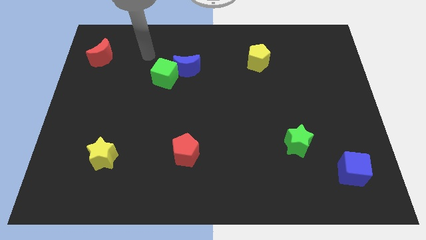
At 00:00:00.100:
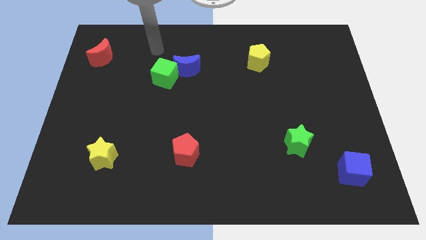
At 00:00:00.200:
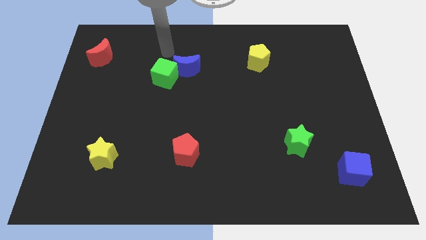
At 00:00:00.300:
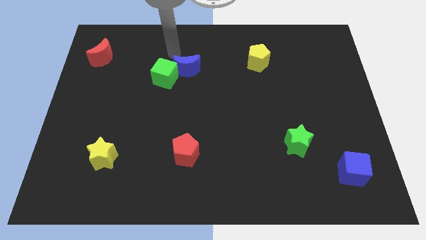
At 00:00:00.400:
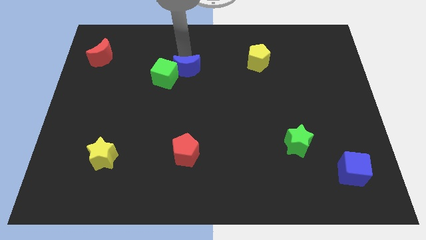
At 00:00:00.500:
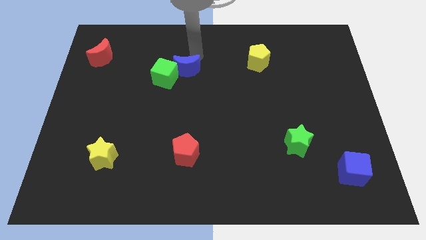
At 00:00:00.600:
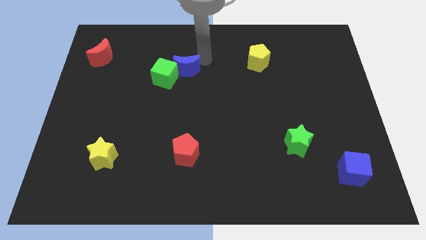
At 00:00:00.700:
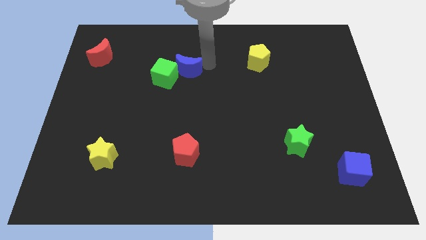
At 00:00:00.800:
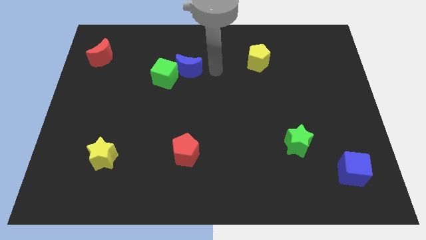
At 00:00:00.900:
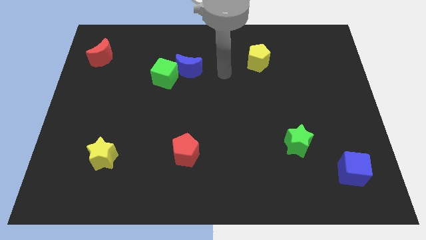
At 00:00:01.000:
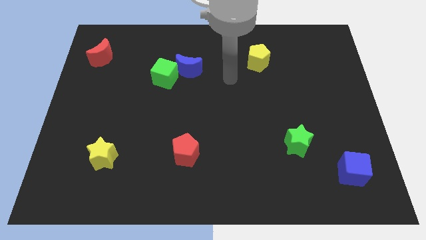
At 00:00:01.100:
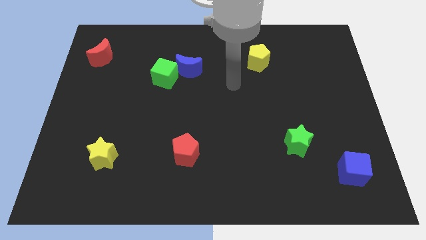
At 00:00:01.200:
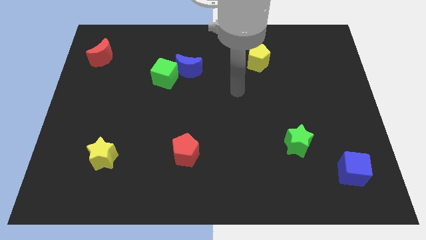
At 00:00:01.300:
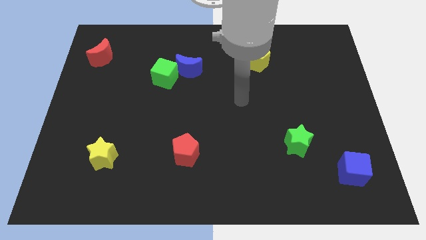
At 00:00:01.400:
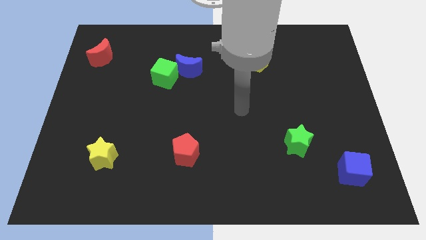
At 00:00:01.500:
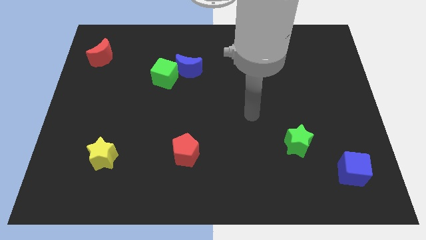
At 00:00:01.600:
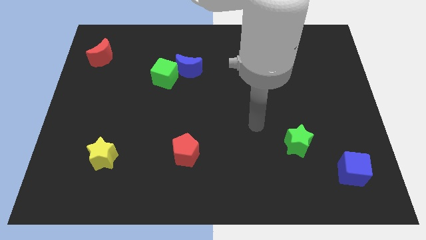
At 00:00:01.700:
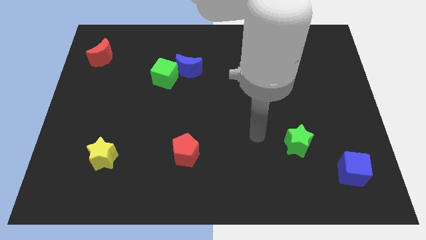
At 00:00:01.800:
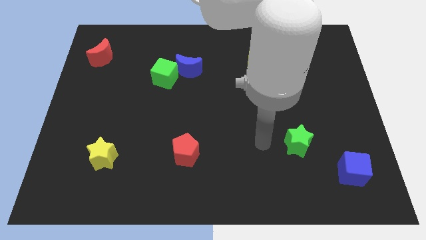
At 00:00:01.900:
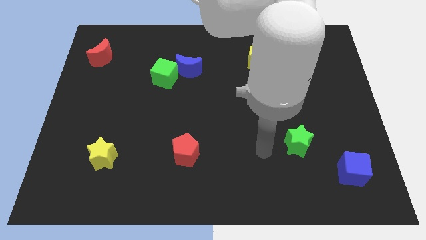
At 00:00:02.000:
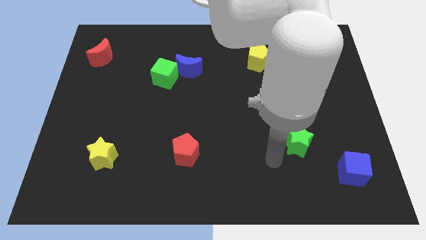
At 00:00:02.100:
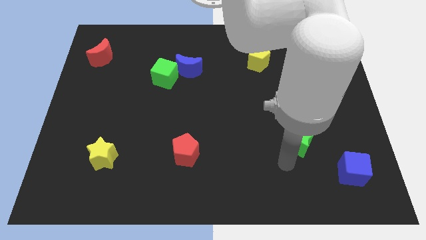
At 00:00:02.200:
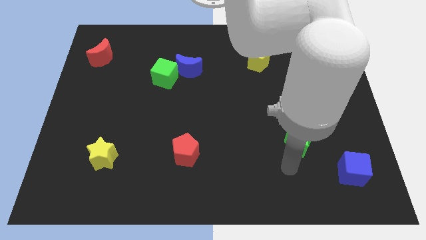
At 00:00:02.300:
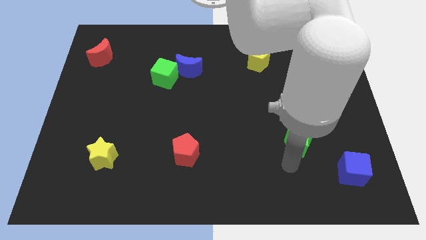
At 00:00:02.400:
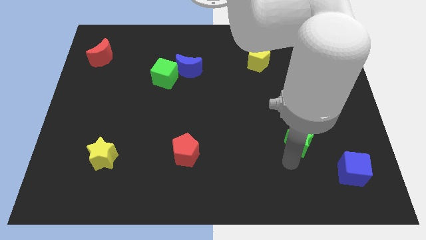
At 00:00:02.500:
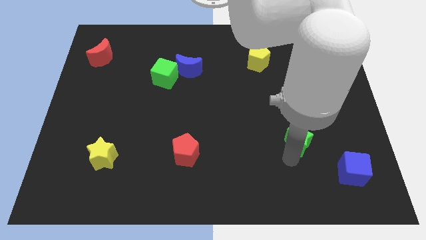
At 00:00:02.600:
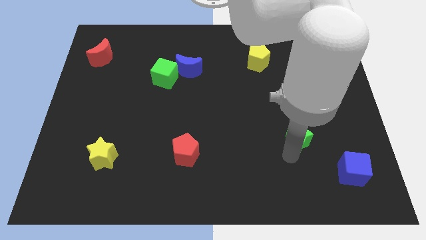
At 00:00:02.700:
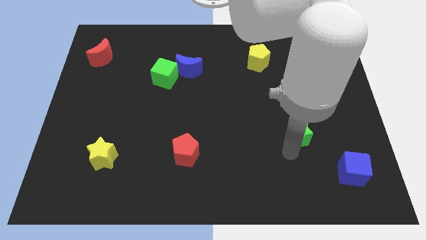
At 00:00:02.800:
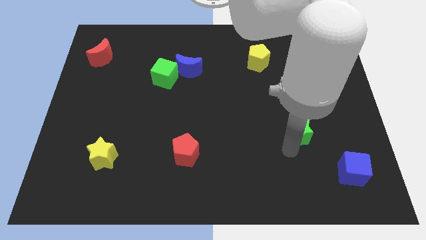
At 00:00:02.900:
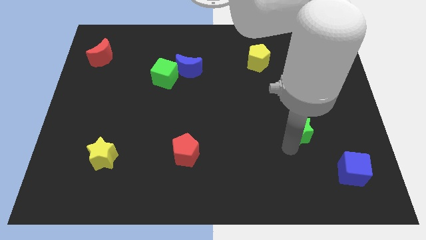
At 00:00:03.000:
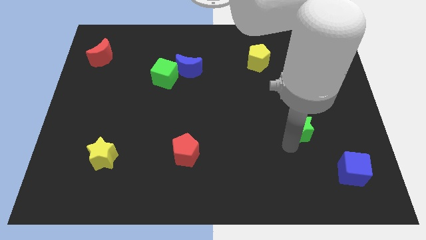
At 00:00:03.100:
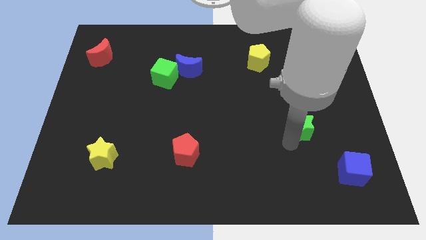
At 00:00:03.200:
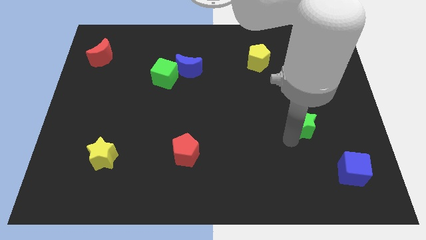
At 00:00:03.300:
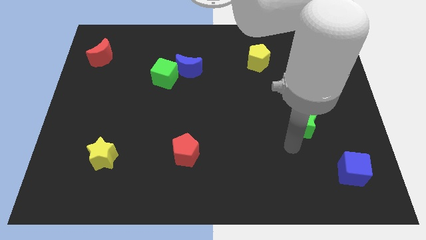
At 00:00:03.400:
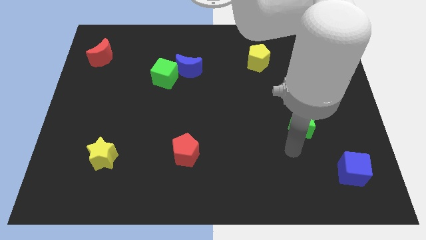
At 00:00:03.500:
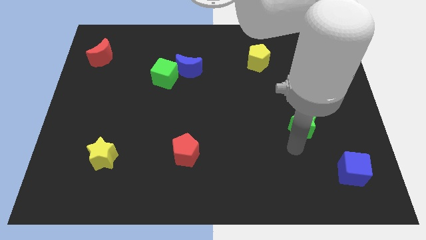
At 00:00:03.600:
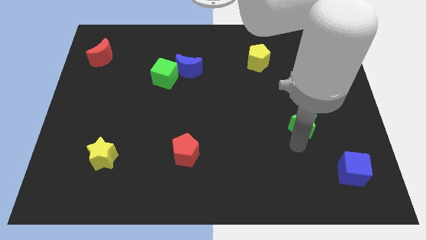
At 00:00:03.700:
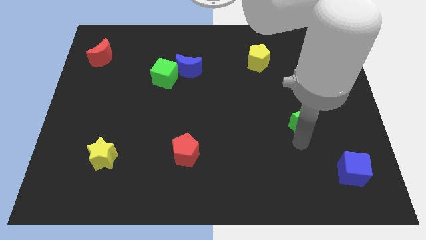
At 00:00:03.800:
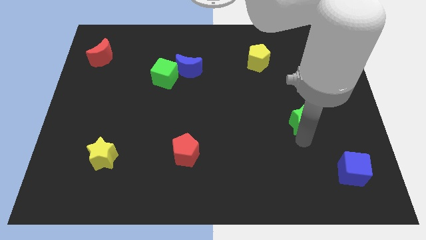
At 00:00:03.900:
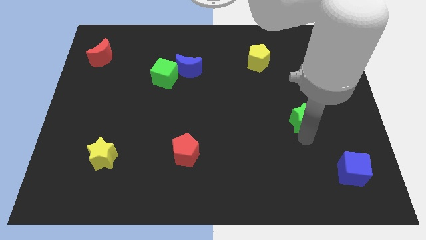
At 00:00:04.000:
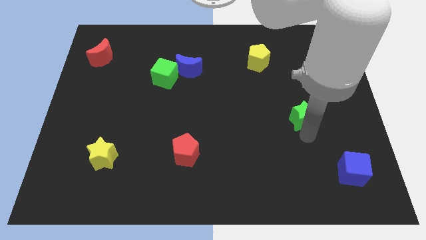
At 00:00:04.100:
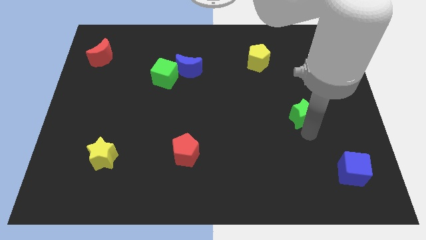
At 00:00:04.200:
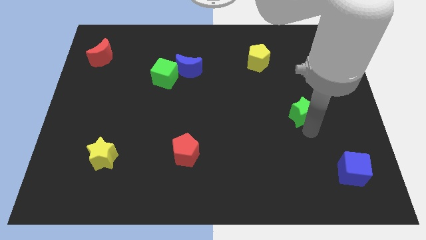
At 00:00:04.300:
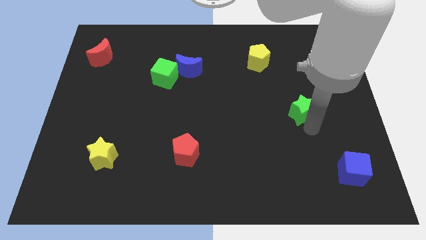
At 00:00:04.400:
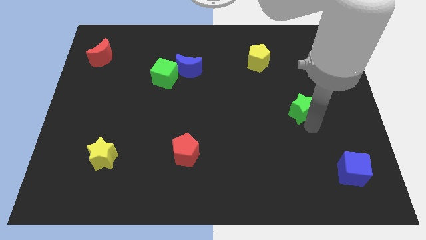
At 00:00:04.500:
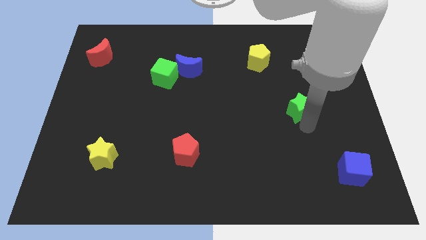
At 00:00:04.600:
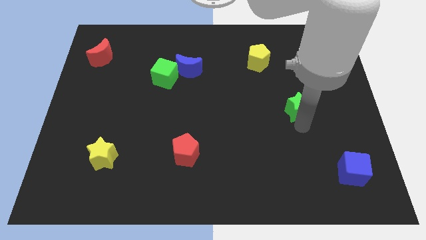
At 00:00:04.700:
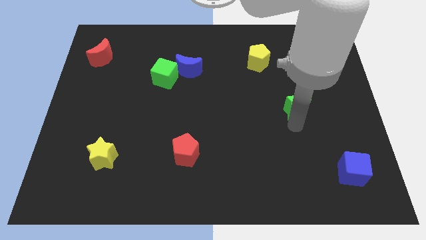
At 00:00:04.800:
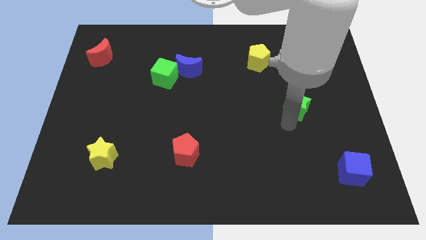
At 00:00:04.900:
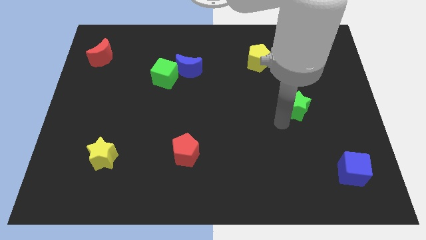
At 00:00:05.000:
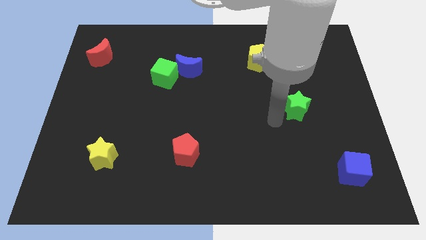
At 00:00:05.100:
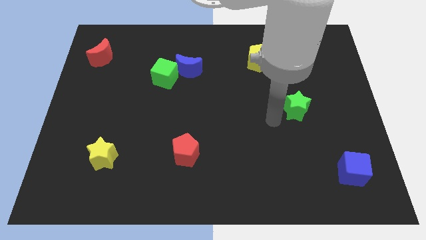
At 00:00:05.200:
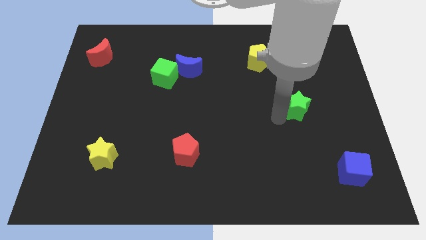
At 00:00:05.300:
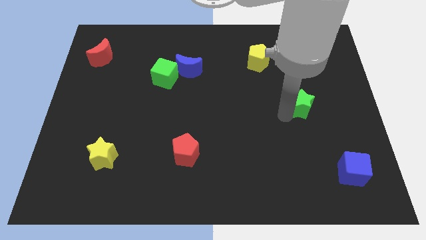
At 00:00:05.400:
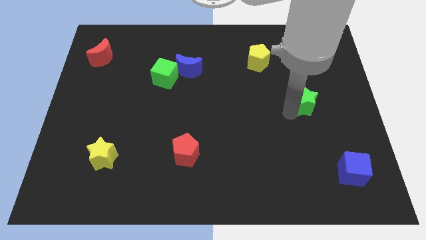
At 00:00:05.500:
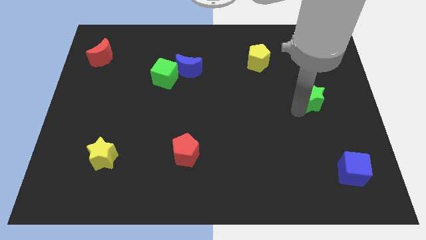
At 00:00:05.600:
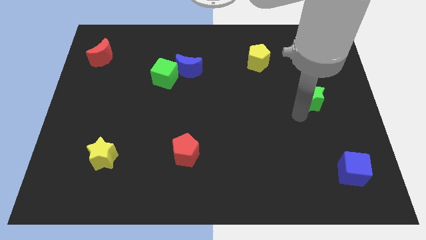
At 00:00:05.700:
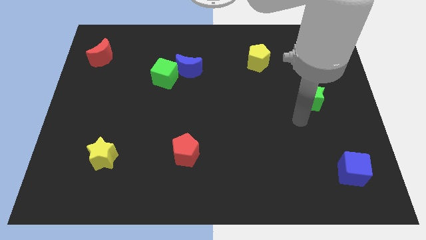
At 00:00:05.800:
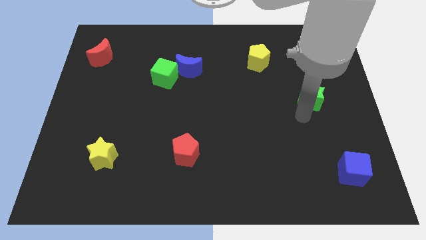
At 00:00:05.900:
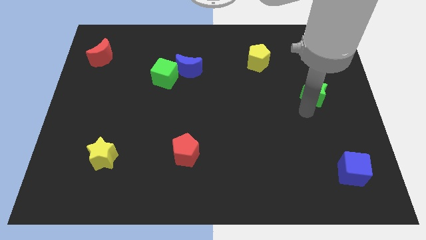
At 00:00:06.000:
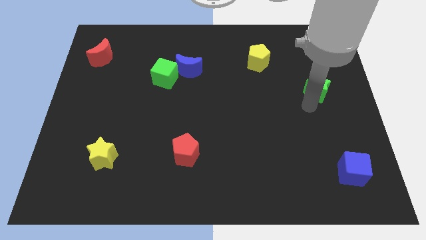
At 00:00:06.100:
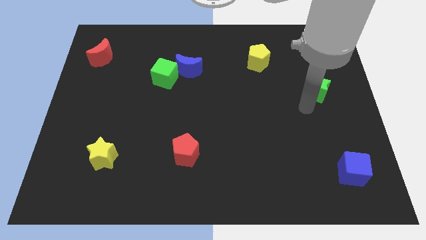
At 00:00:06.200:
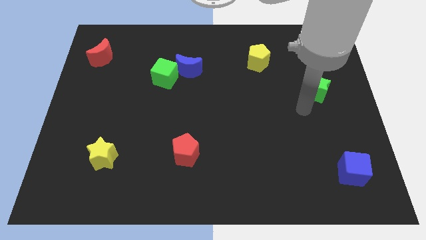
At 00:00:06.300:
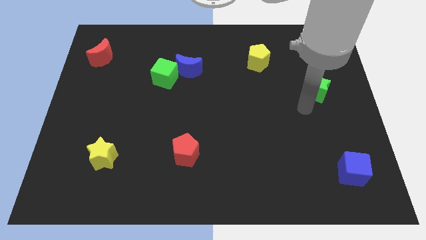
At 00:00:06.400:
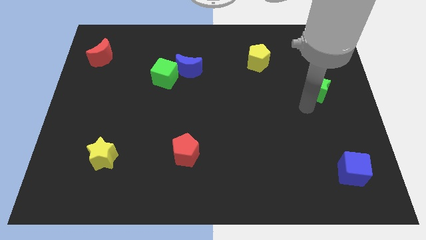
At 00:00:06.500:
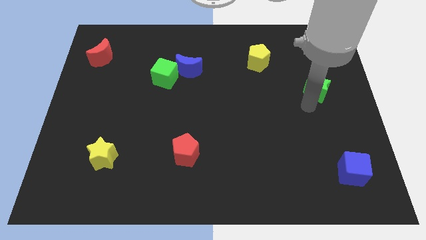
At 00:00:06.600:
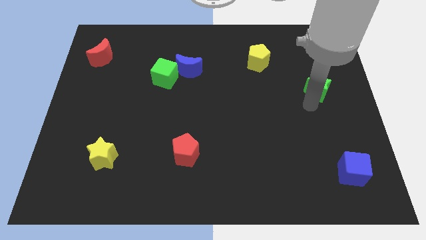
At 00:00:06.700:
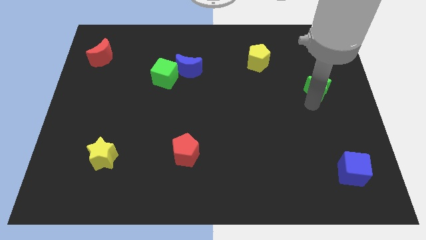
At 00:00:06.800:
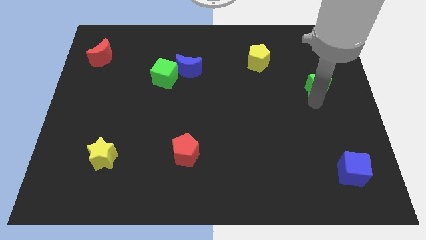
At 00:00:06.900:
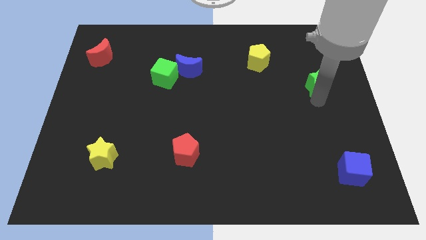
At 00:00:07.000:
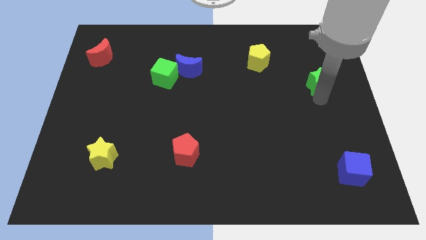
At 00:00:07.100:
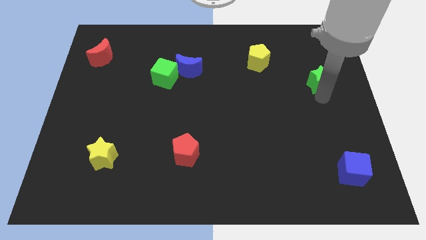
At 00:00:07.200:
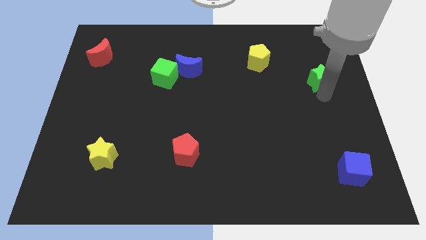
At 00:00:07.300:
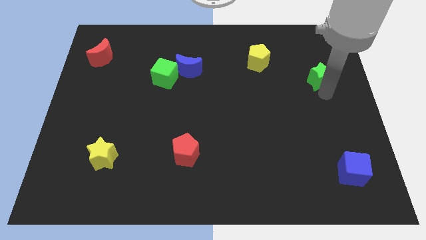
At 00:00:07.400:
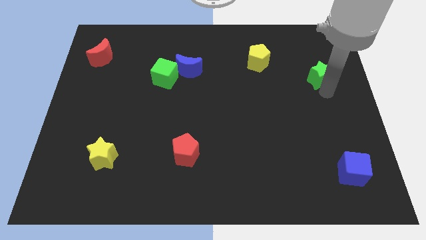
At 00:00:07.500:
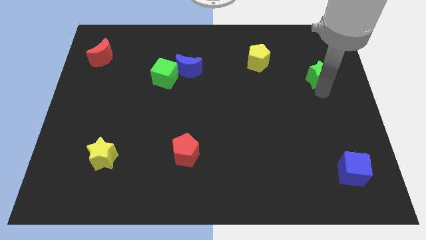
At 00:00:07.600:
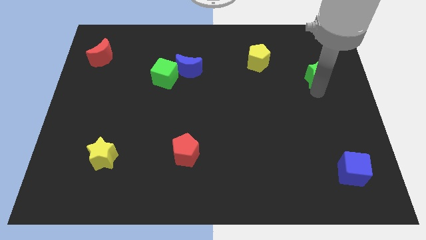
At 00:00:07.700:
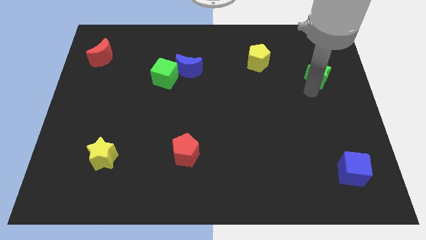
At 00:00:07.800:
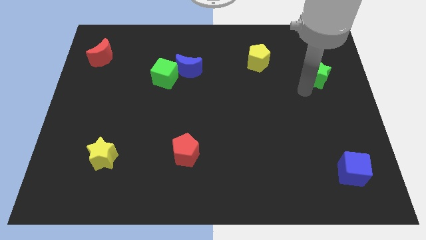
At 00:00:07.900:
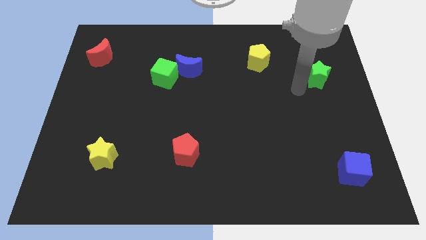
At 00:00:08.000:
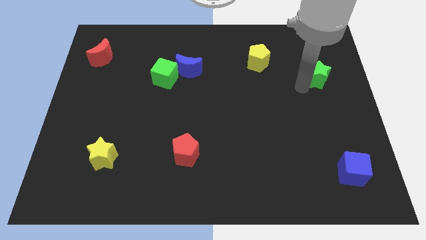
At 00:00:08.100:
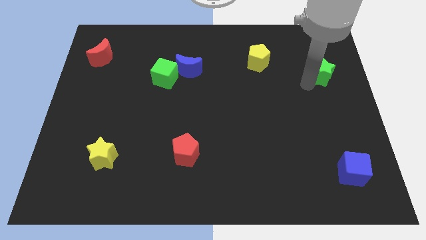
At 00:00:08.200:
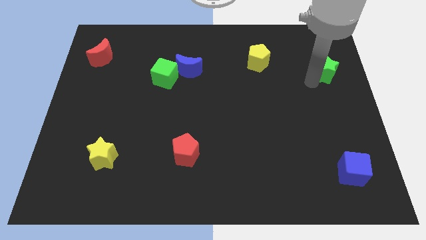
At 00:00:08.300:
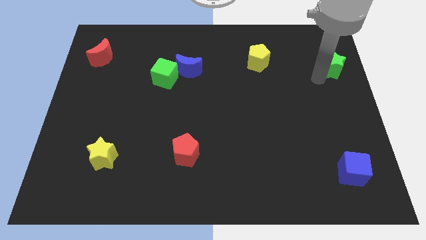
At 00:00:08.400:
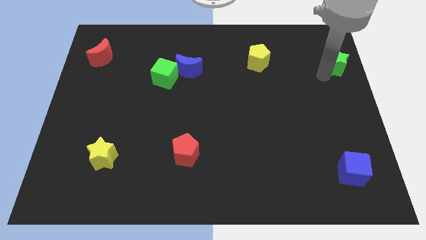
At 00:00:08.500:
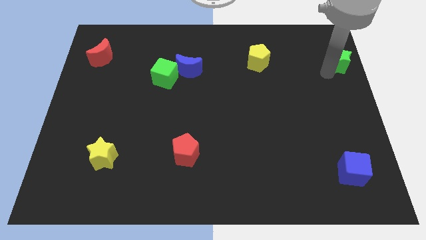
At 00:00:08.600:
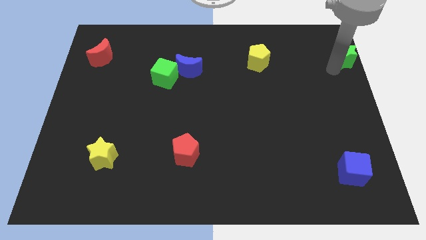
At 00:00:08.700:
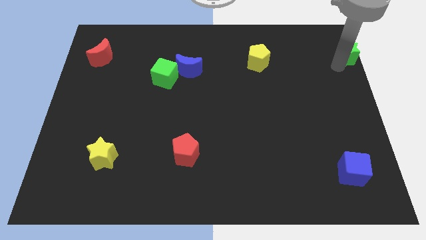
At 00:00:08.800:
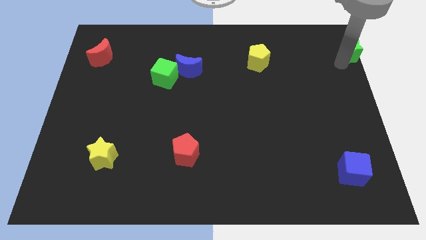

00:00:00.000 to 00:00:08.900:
slide the green star to the top right corner
